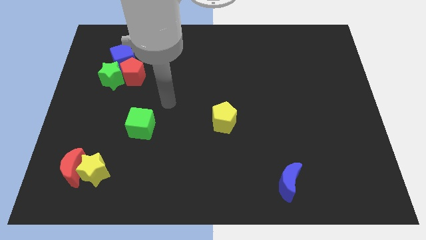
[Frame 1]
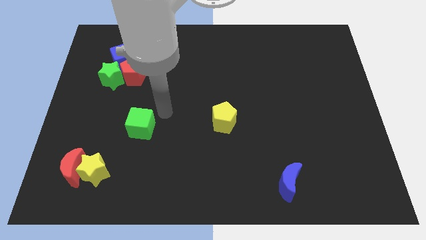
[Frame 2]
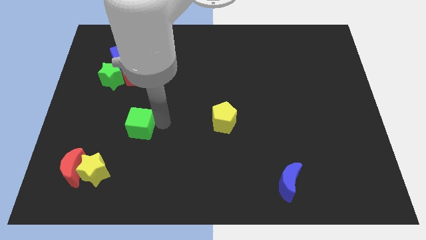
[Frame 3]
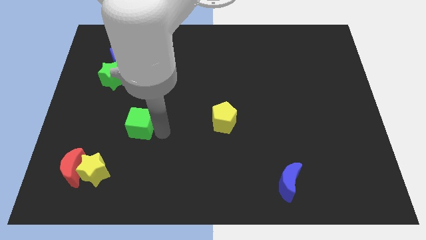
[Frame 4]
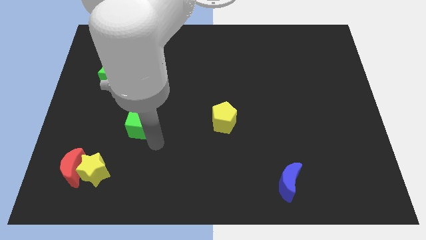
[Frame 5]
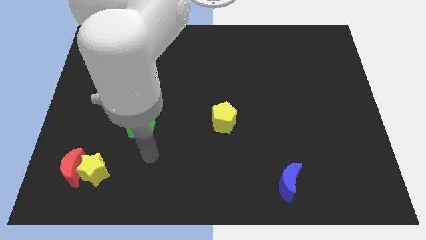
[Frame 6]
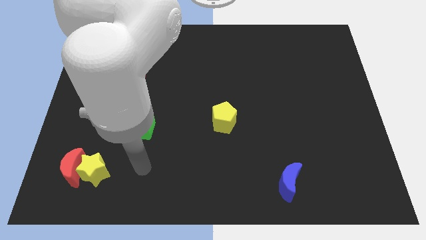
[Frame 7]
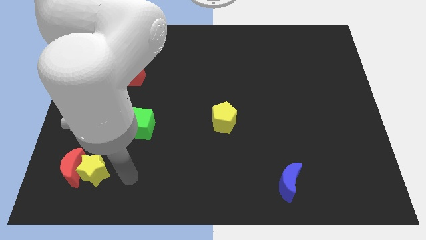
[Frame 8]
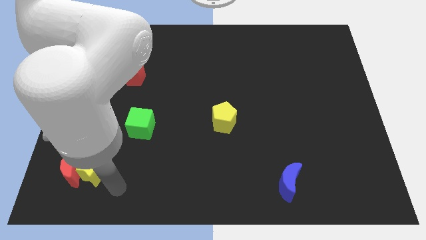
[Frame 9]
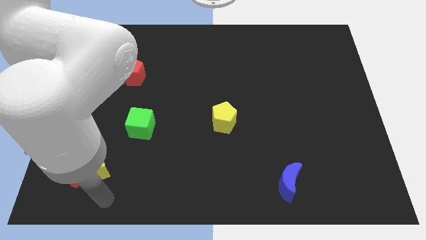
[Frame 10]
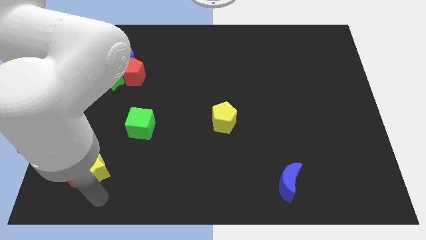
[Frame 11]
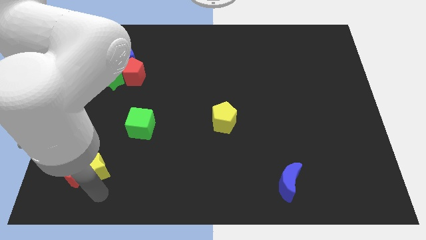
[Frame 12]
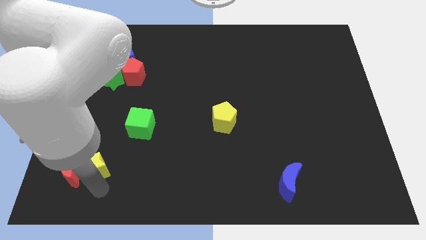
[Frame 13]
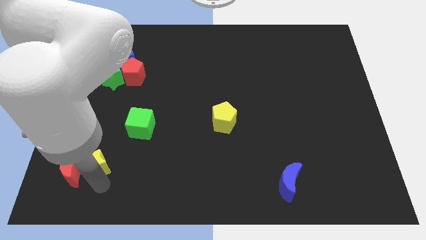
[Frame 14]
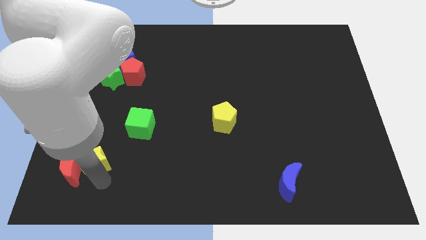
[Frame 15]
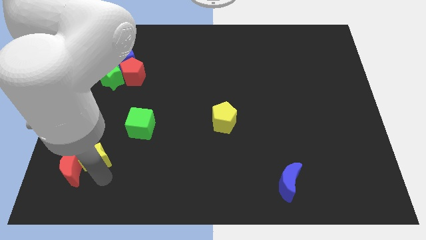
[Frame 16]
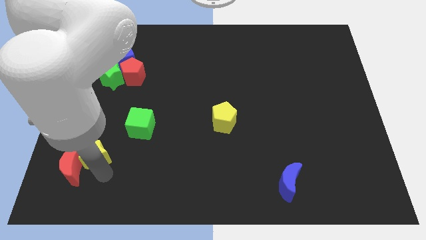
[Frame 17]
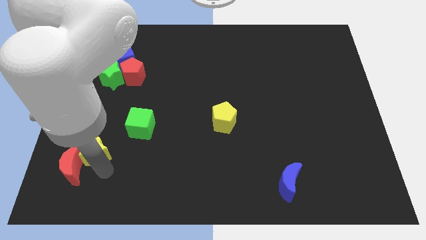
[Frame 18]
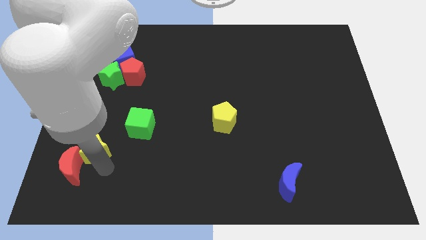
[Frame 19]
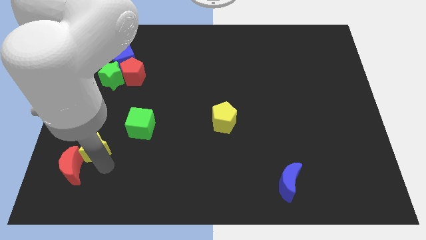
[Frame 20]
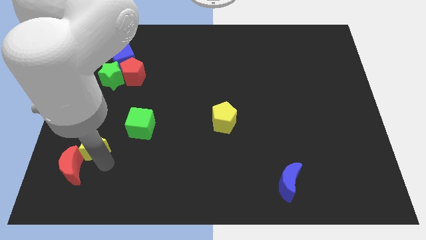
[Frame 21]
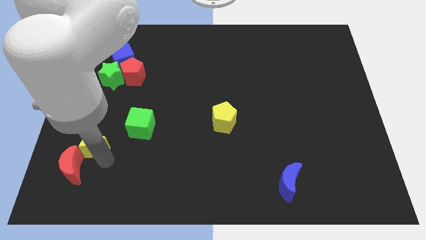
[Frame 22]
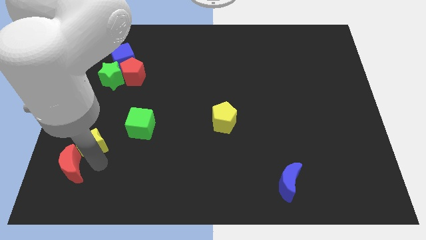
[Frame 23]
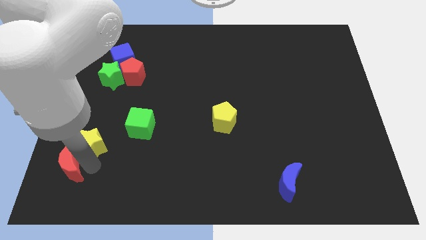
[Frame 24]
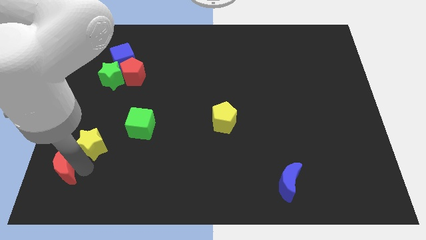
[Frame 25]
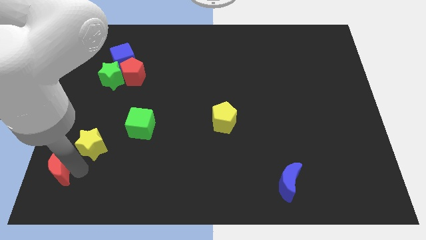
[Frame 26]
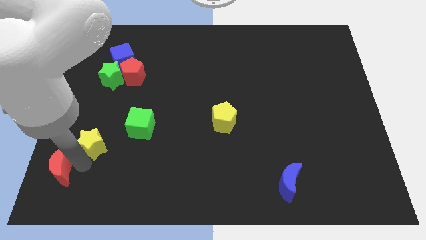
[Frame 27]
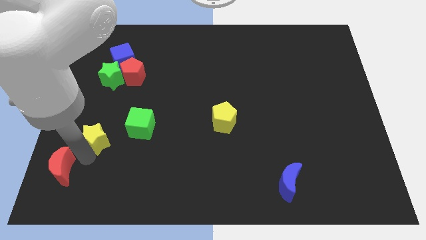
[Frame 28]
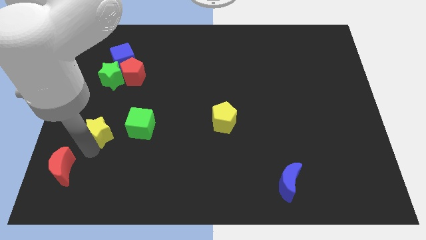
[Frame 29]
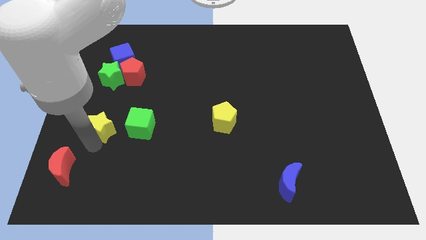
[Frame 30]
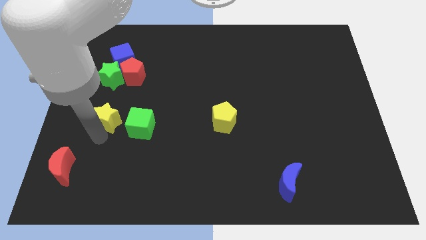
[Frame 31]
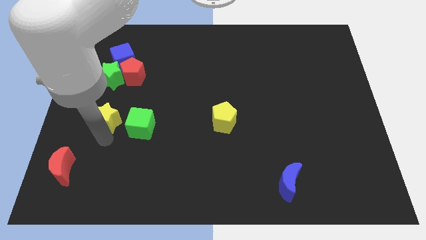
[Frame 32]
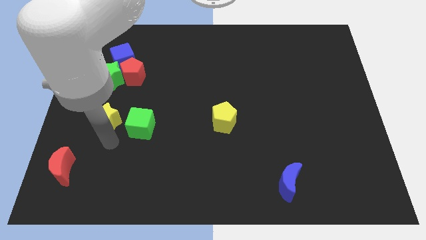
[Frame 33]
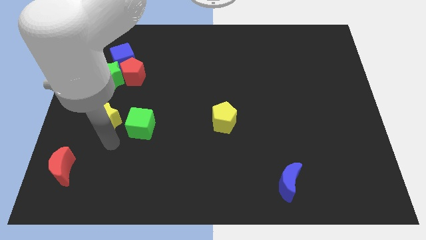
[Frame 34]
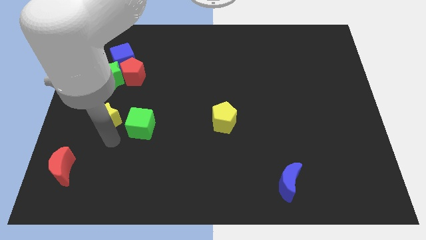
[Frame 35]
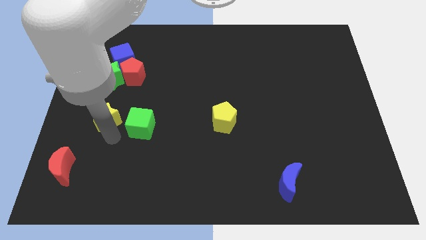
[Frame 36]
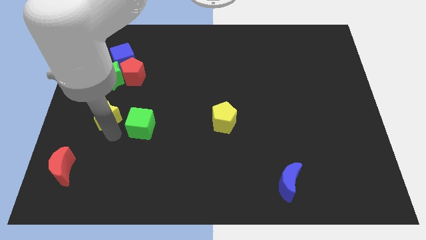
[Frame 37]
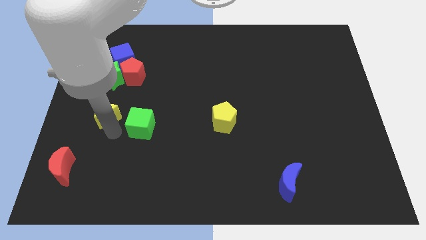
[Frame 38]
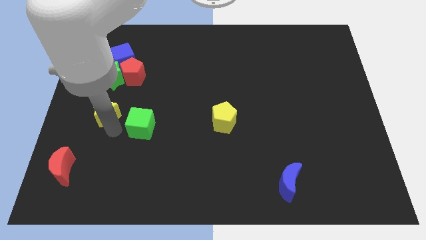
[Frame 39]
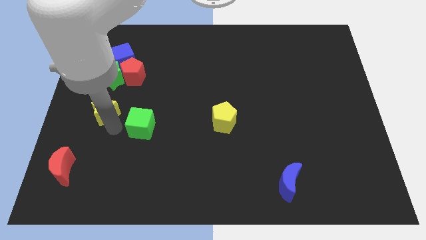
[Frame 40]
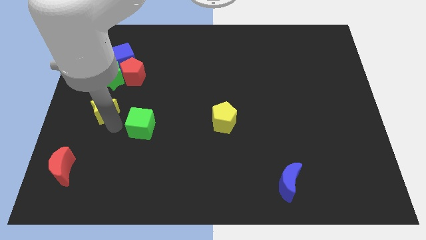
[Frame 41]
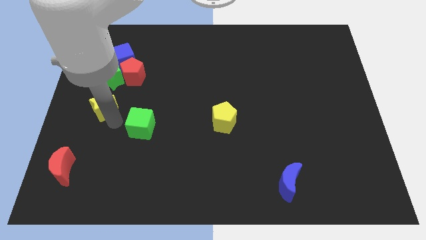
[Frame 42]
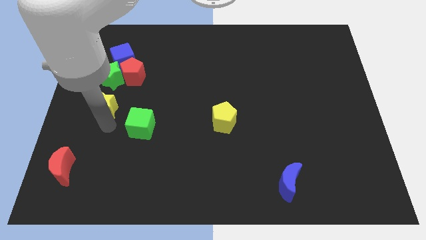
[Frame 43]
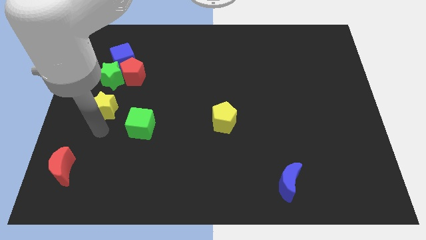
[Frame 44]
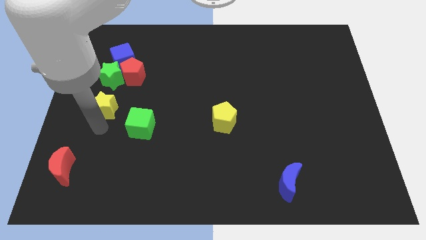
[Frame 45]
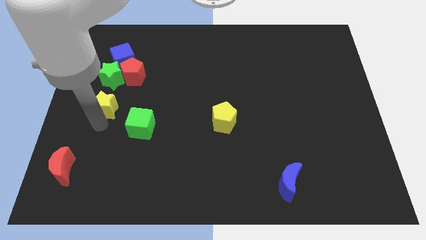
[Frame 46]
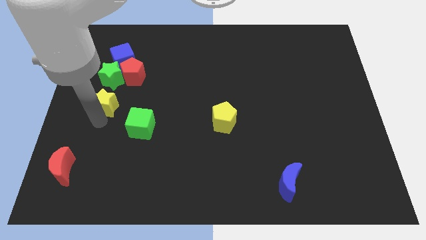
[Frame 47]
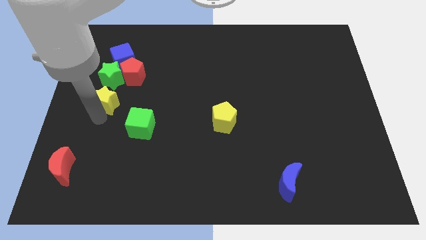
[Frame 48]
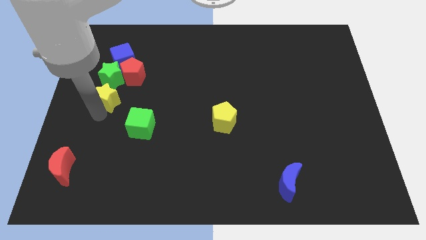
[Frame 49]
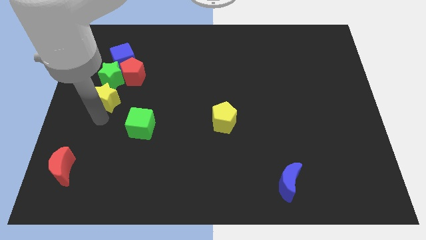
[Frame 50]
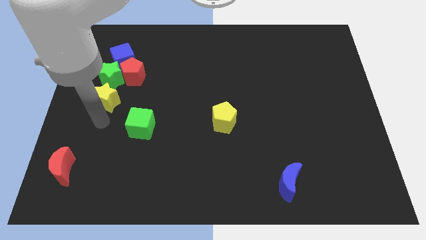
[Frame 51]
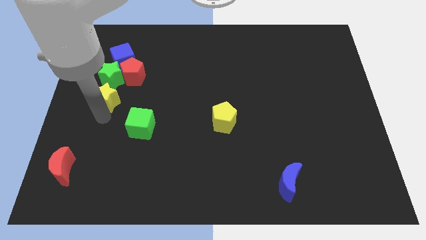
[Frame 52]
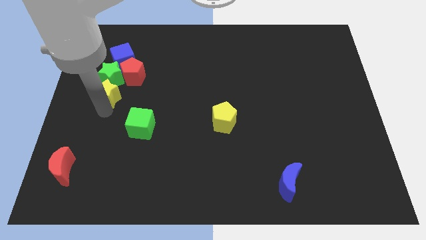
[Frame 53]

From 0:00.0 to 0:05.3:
put the yellow star to the green star

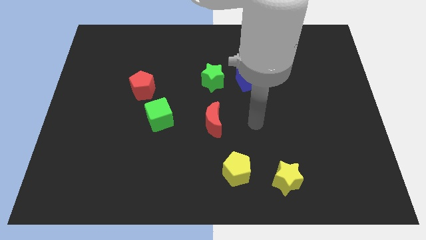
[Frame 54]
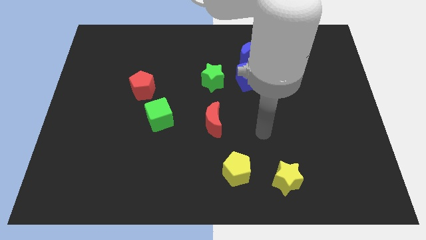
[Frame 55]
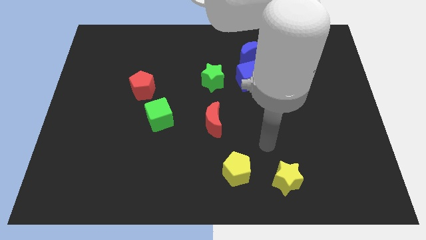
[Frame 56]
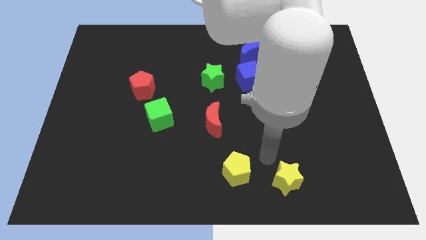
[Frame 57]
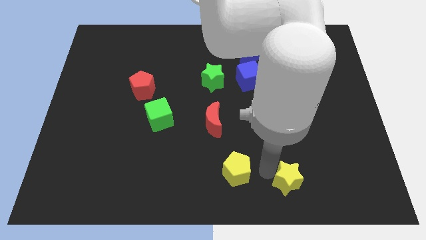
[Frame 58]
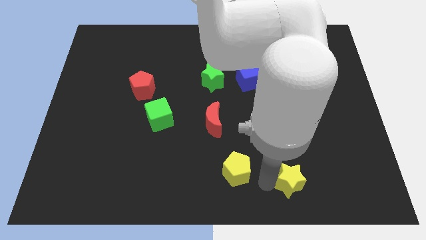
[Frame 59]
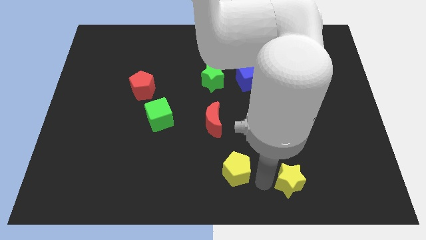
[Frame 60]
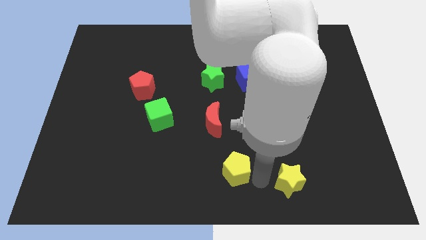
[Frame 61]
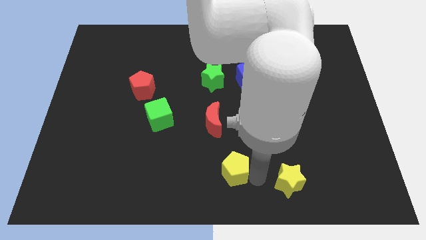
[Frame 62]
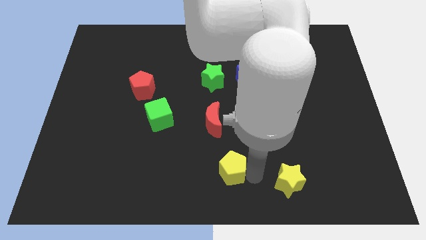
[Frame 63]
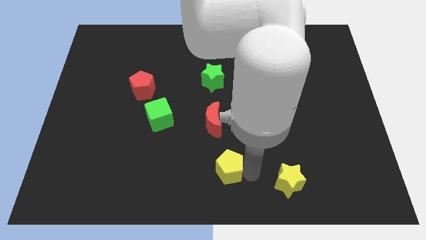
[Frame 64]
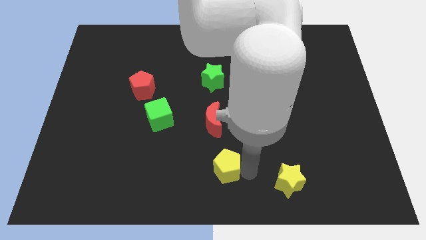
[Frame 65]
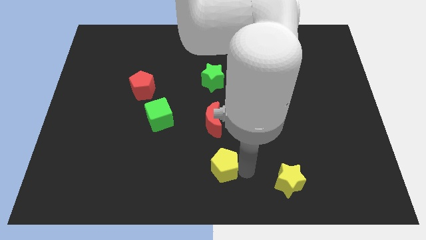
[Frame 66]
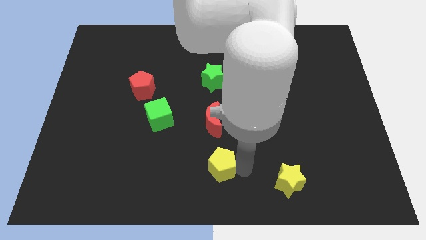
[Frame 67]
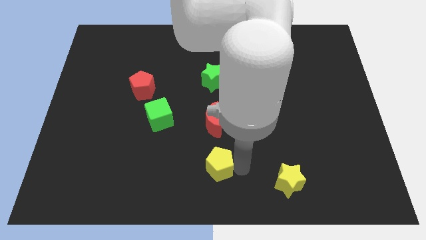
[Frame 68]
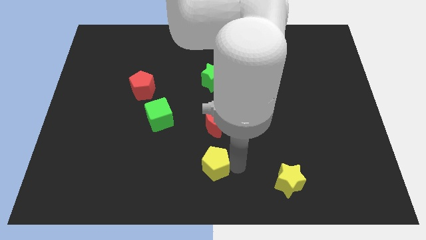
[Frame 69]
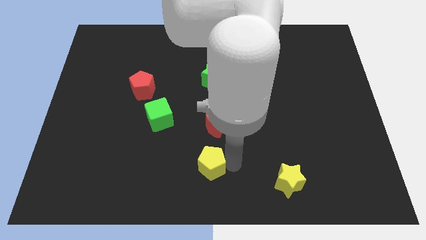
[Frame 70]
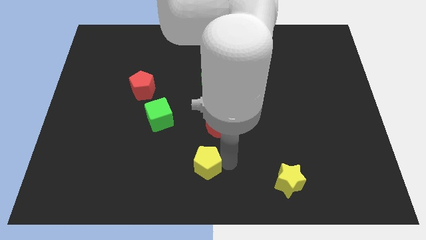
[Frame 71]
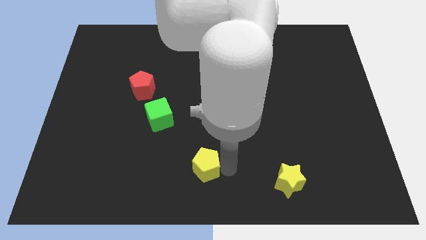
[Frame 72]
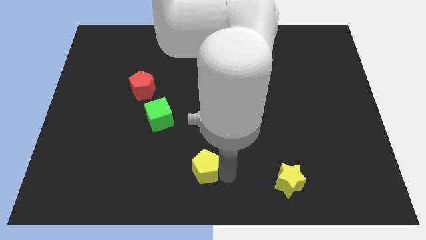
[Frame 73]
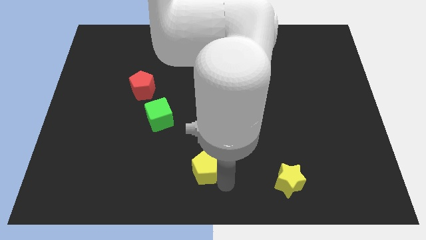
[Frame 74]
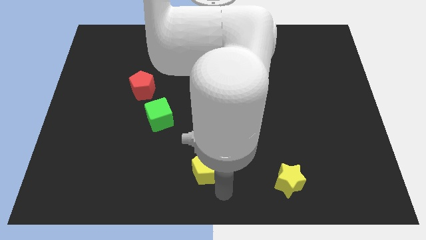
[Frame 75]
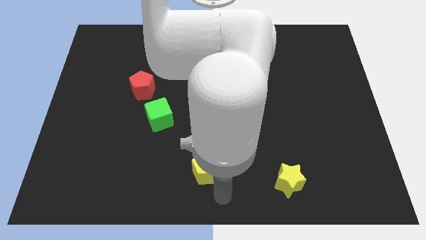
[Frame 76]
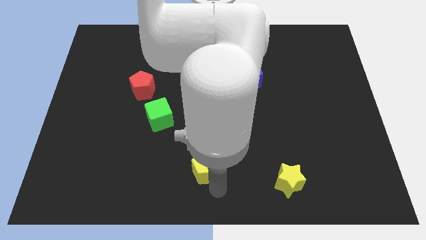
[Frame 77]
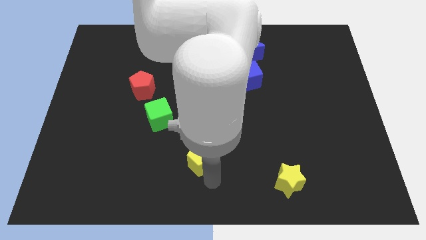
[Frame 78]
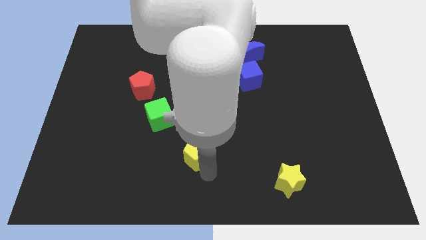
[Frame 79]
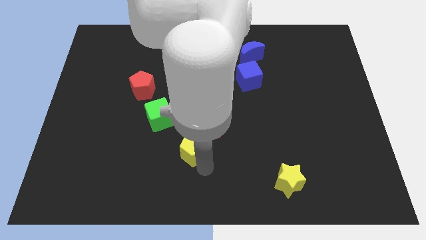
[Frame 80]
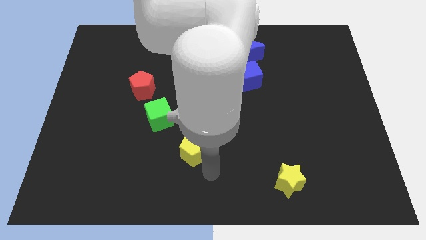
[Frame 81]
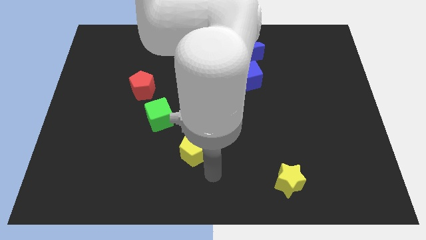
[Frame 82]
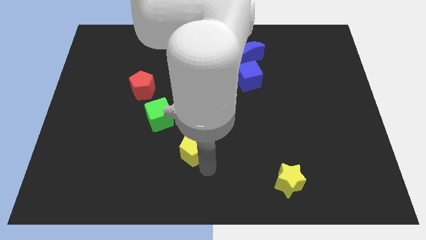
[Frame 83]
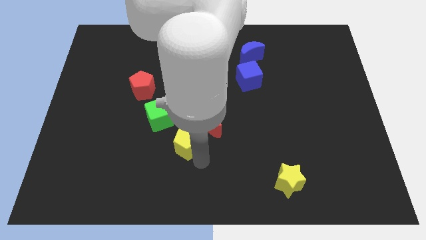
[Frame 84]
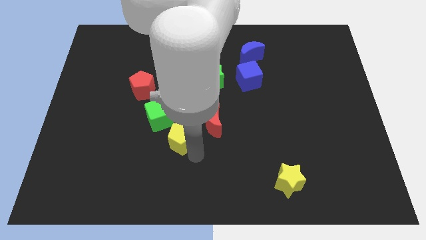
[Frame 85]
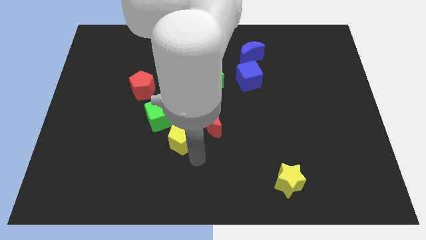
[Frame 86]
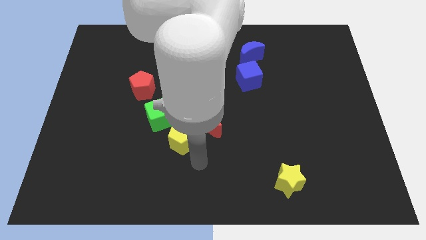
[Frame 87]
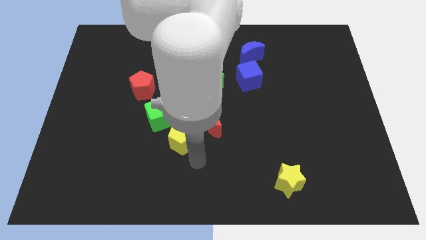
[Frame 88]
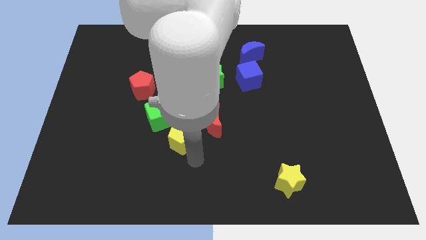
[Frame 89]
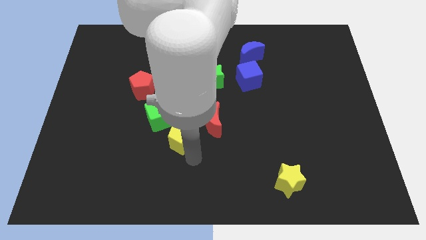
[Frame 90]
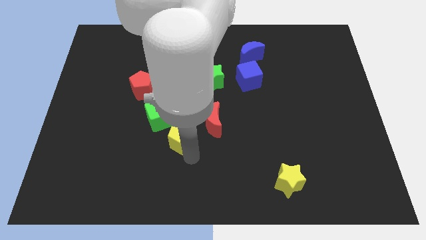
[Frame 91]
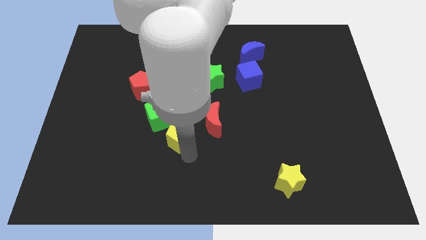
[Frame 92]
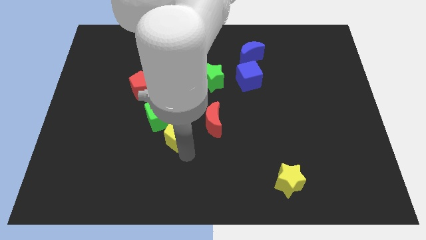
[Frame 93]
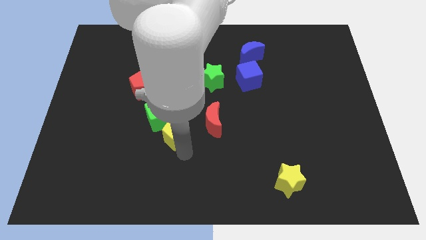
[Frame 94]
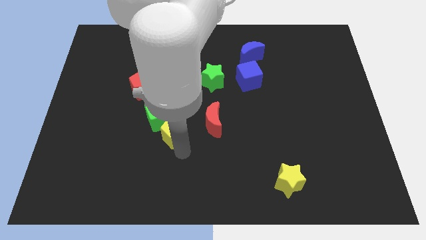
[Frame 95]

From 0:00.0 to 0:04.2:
slide the yellow pentagon towards the green cube
